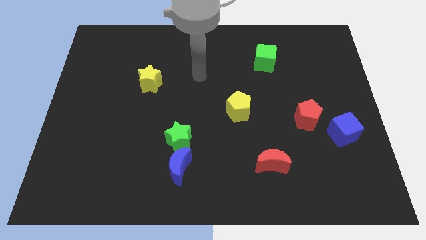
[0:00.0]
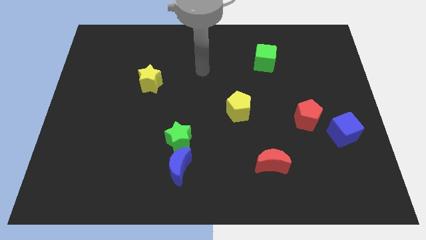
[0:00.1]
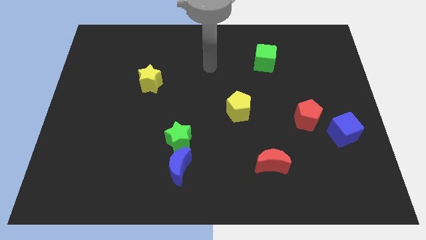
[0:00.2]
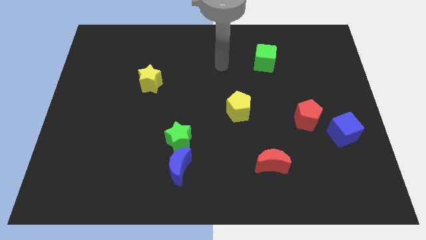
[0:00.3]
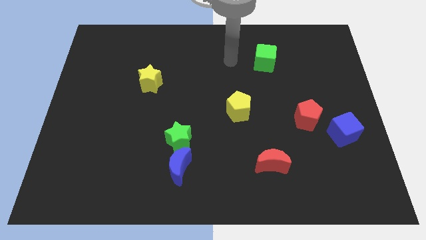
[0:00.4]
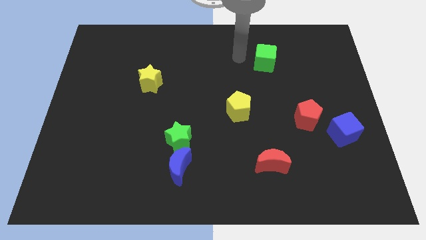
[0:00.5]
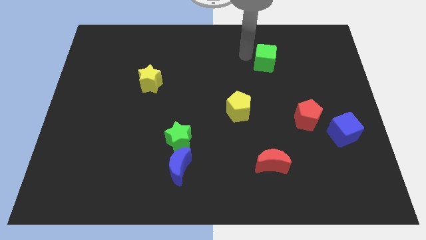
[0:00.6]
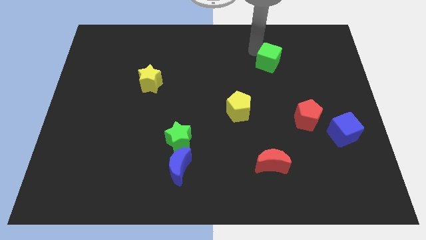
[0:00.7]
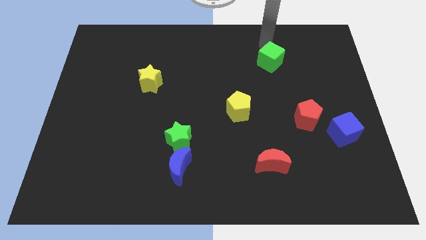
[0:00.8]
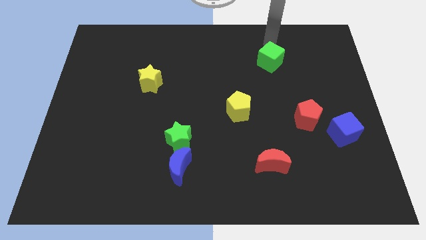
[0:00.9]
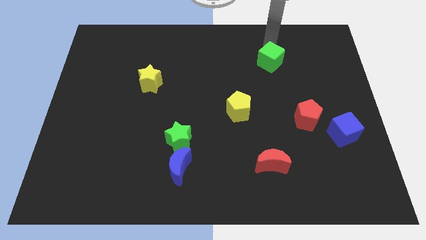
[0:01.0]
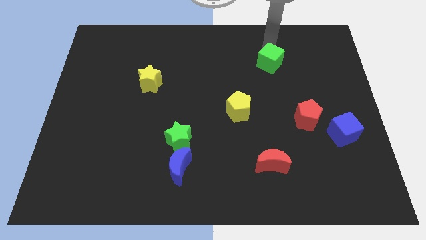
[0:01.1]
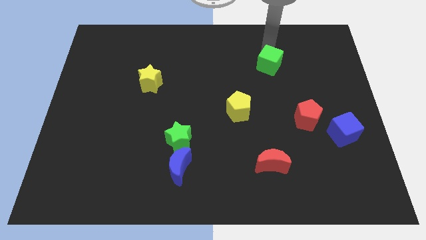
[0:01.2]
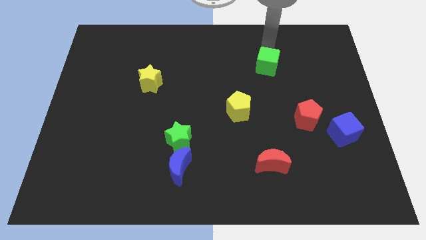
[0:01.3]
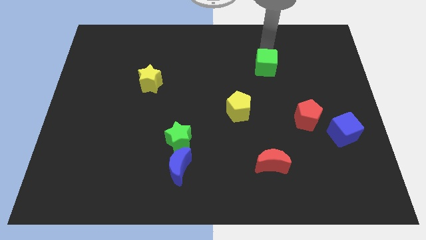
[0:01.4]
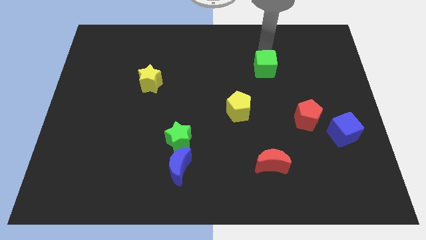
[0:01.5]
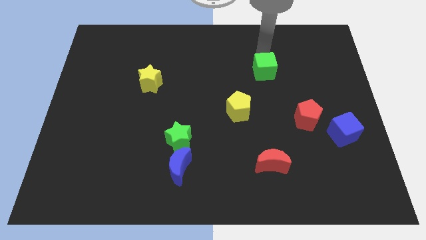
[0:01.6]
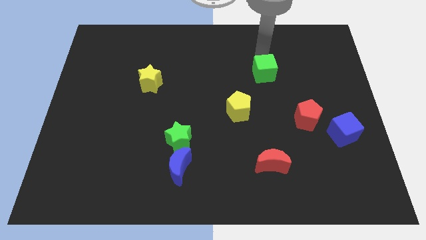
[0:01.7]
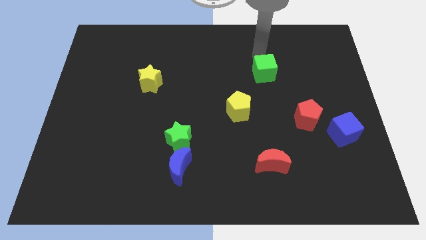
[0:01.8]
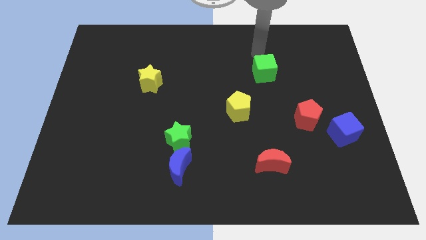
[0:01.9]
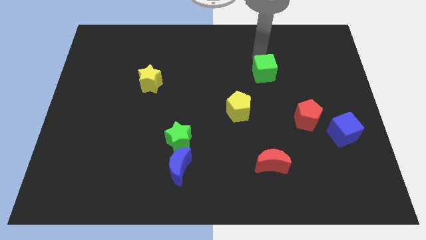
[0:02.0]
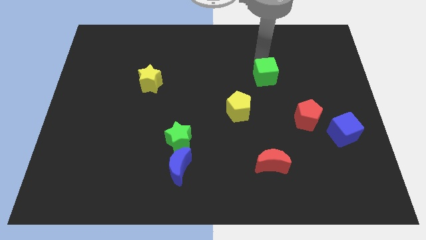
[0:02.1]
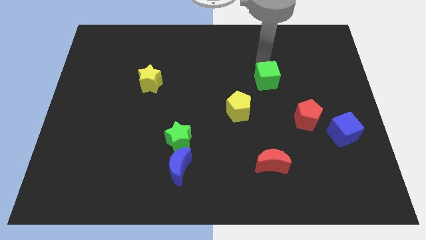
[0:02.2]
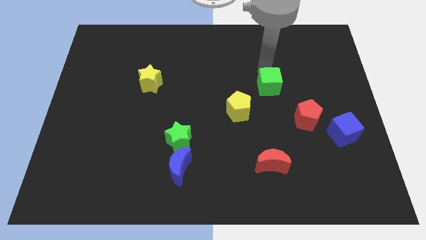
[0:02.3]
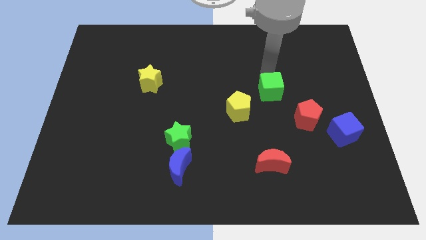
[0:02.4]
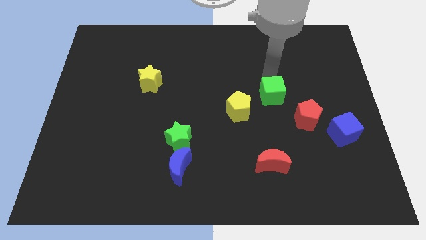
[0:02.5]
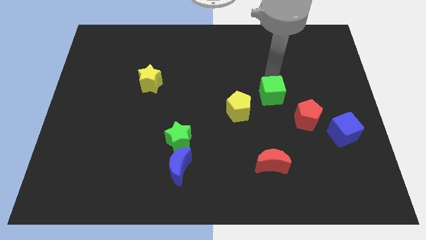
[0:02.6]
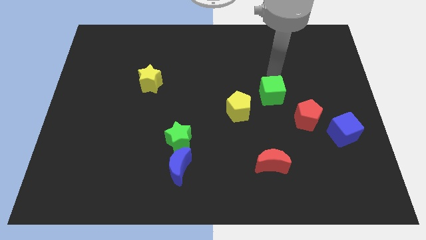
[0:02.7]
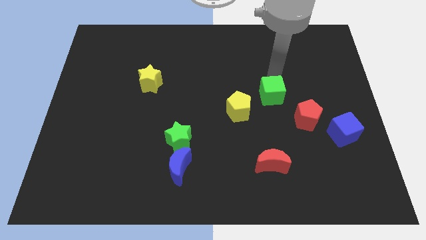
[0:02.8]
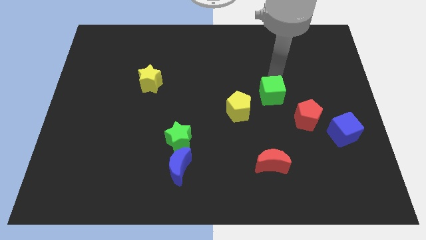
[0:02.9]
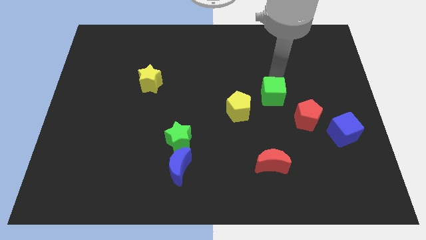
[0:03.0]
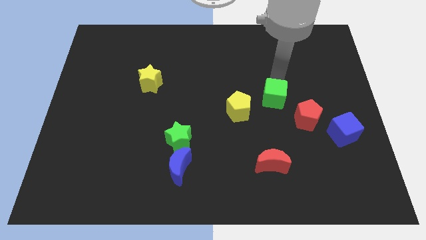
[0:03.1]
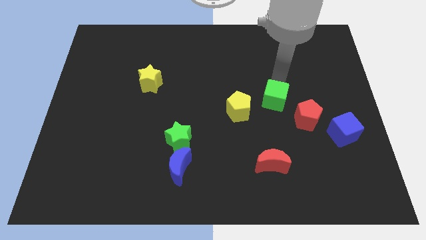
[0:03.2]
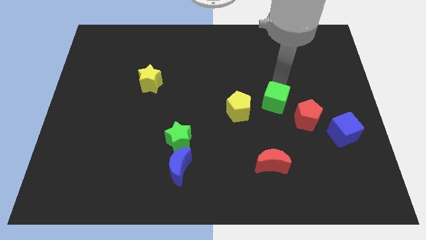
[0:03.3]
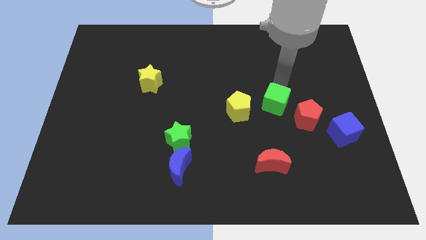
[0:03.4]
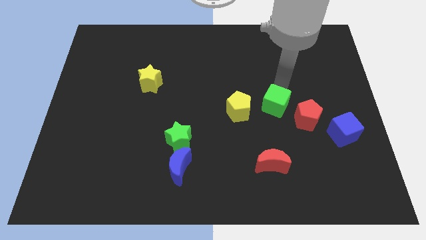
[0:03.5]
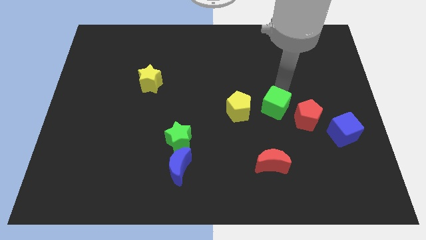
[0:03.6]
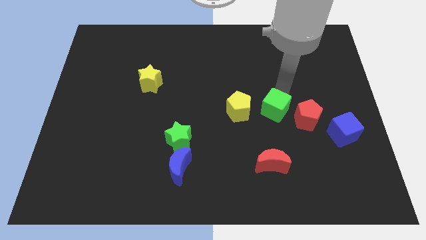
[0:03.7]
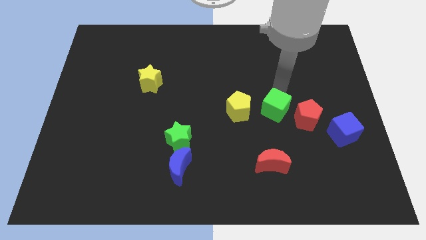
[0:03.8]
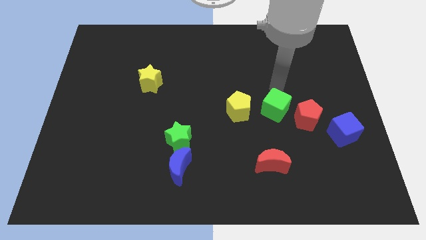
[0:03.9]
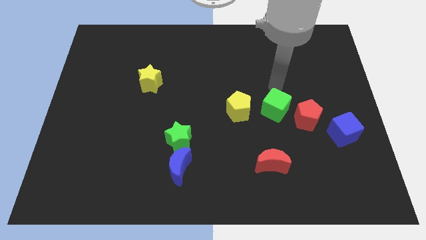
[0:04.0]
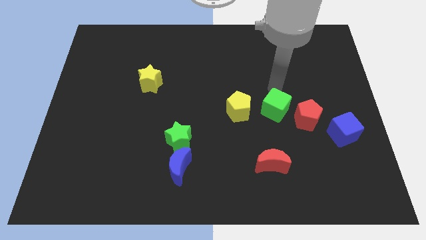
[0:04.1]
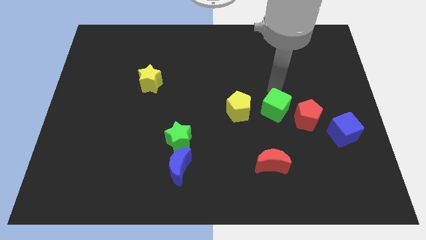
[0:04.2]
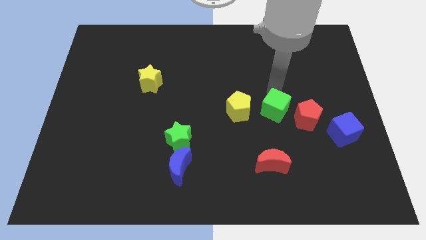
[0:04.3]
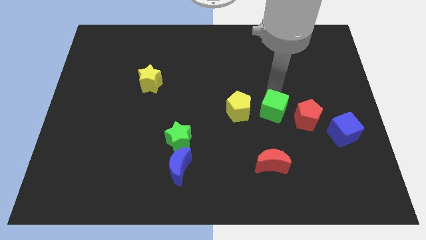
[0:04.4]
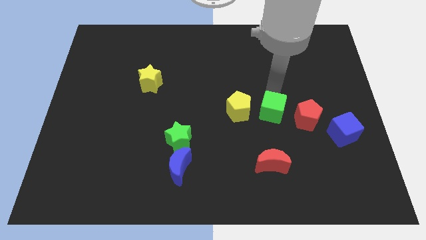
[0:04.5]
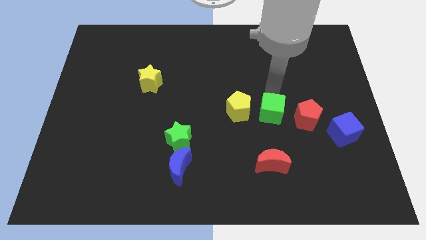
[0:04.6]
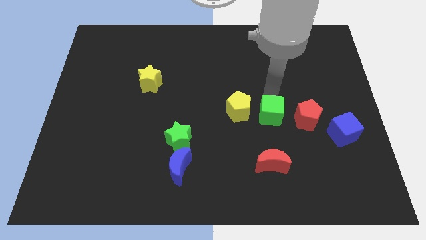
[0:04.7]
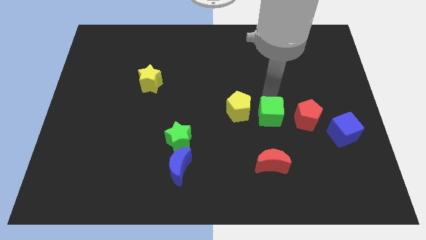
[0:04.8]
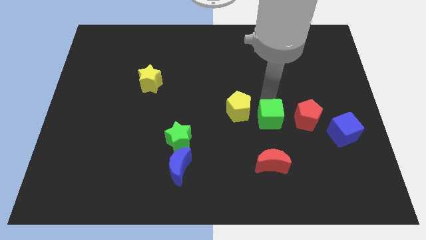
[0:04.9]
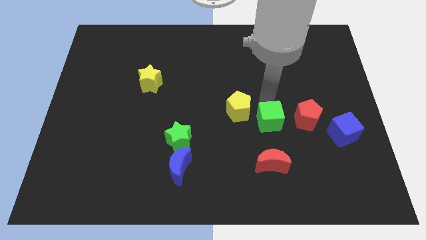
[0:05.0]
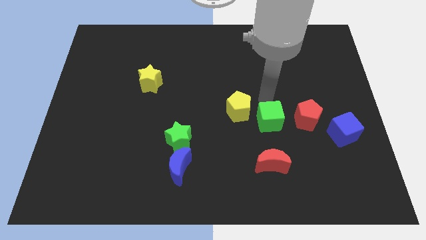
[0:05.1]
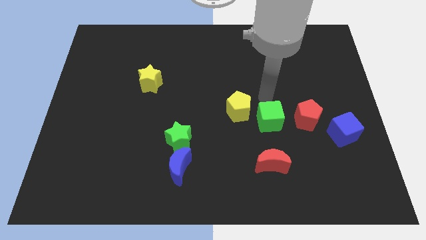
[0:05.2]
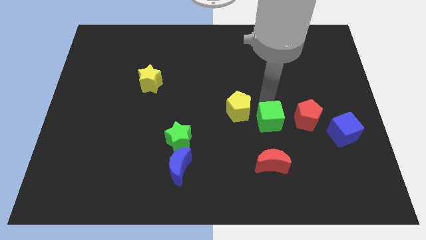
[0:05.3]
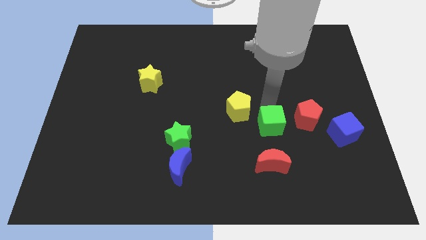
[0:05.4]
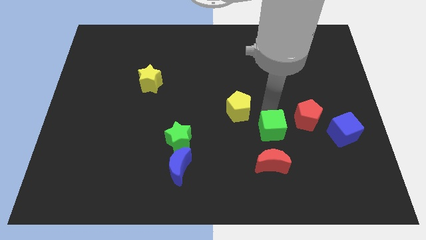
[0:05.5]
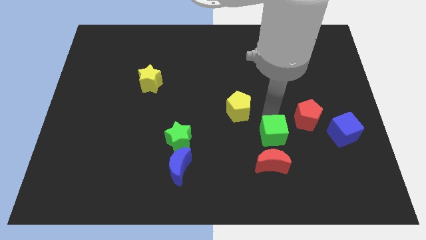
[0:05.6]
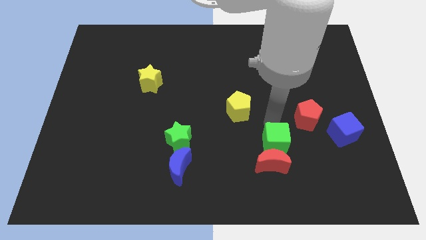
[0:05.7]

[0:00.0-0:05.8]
move the green cube close to the red moon

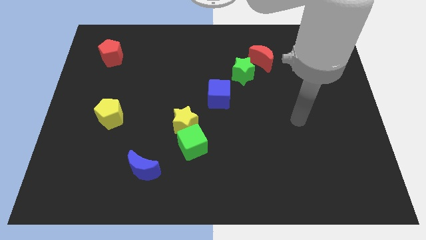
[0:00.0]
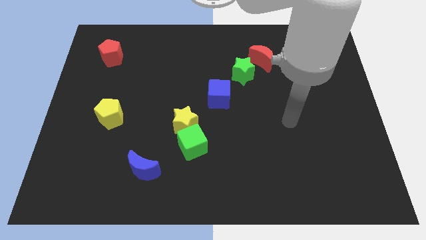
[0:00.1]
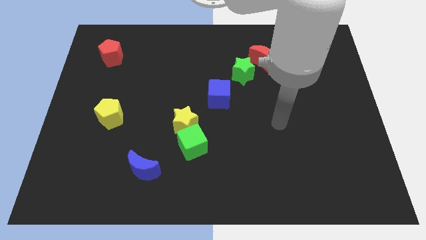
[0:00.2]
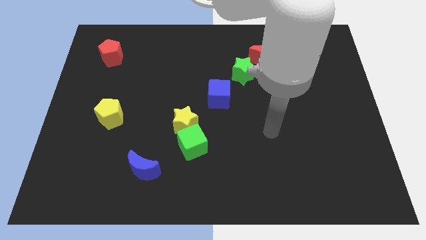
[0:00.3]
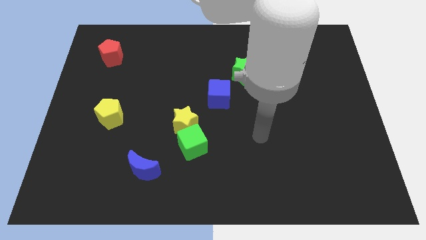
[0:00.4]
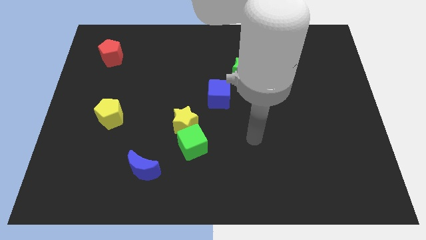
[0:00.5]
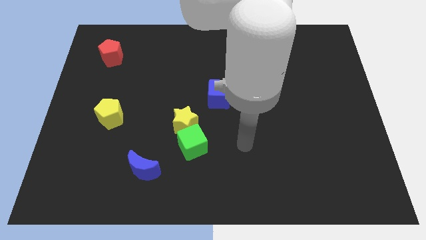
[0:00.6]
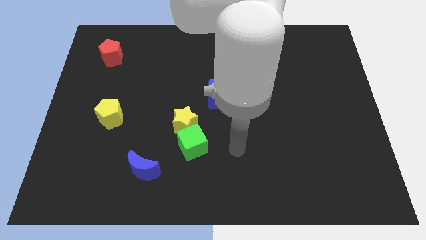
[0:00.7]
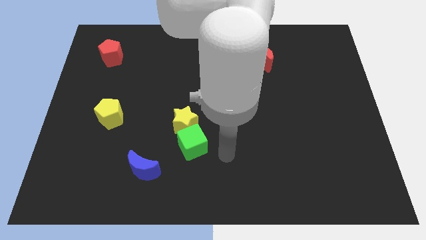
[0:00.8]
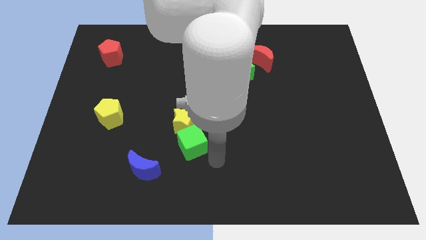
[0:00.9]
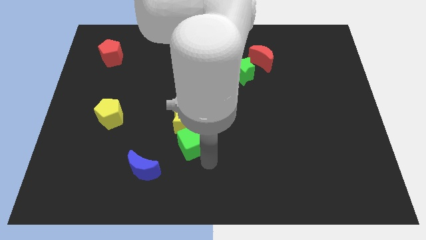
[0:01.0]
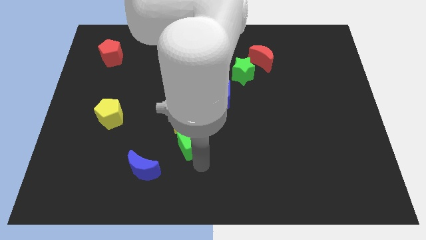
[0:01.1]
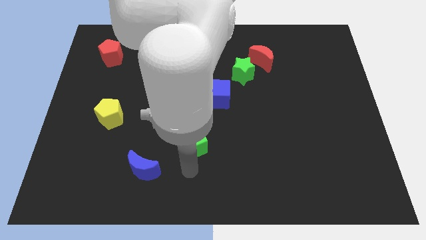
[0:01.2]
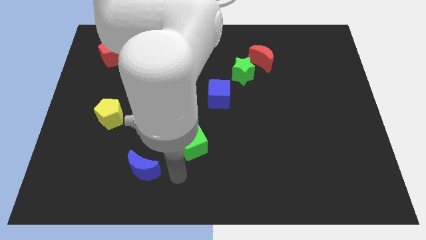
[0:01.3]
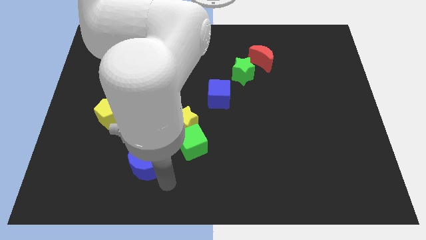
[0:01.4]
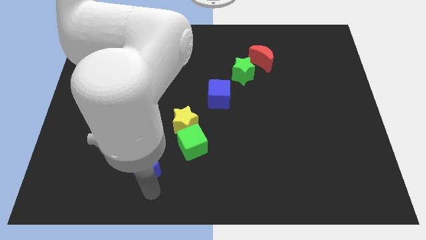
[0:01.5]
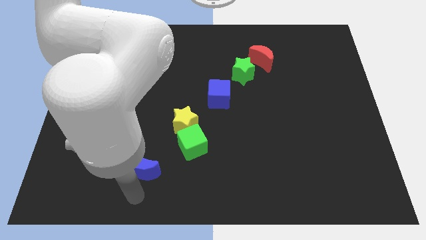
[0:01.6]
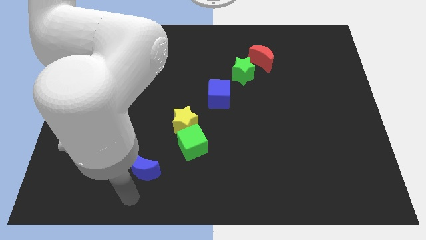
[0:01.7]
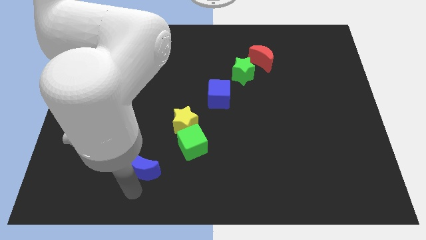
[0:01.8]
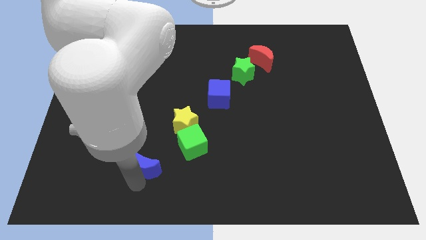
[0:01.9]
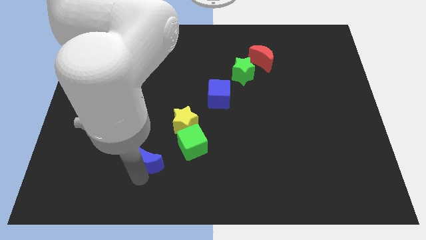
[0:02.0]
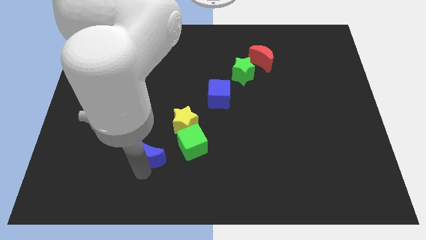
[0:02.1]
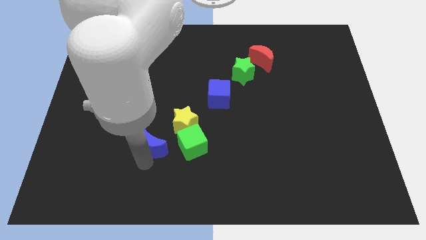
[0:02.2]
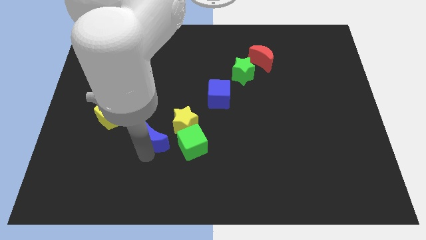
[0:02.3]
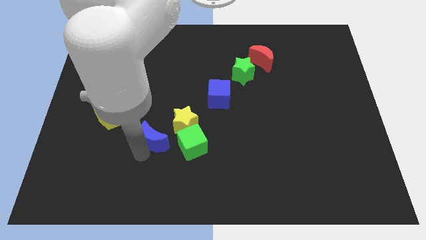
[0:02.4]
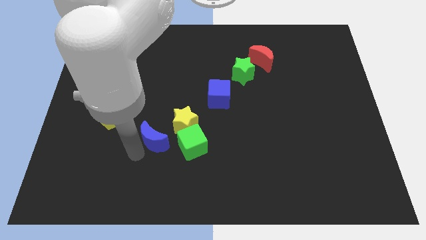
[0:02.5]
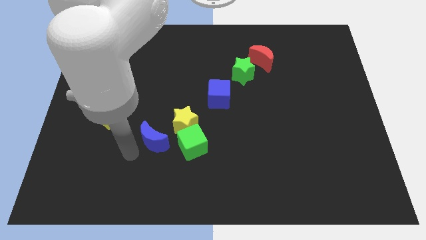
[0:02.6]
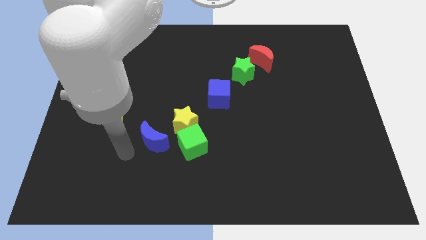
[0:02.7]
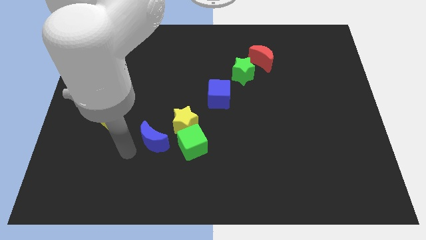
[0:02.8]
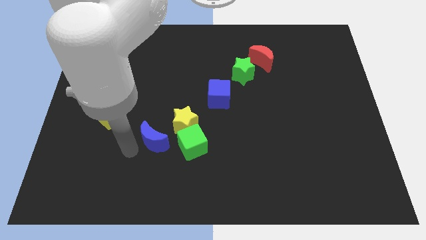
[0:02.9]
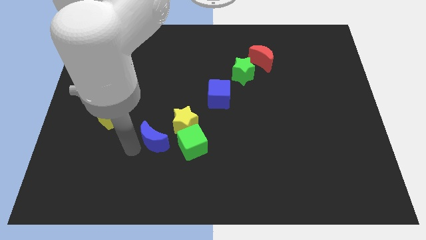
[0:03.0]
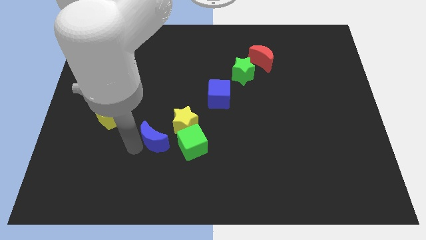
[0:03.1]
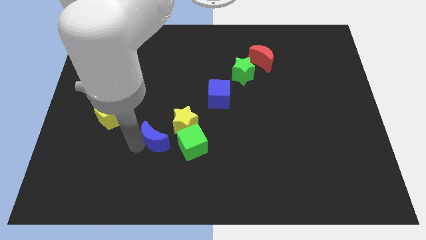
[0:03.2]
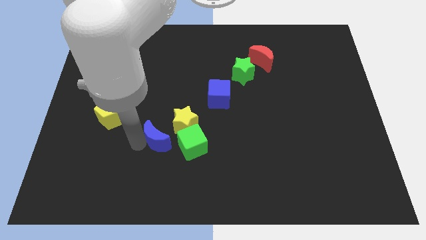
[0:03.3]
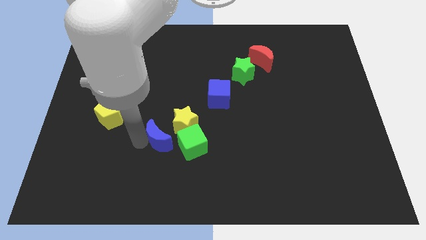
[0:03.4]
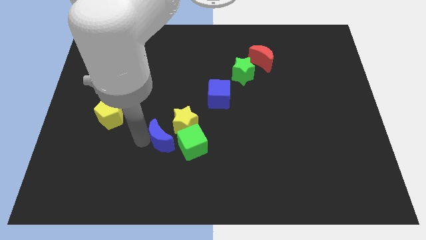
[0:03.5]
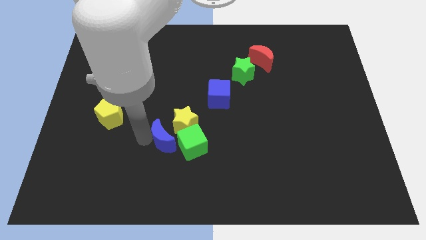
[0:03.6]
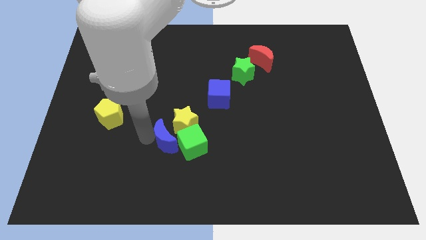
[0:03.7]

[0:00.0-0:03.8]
put the blue moon next to the yellow star
